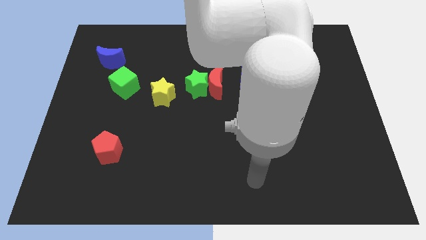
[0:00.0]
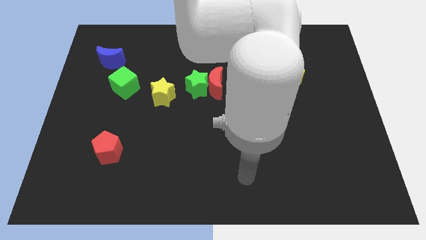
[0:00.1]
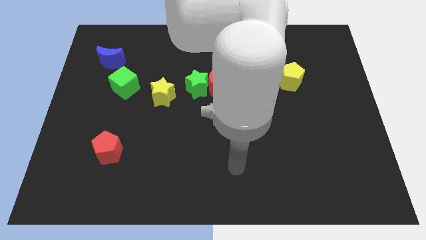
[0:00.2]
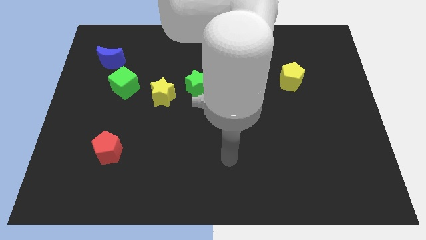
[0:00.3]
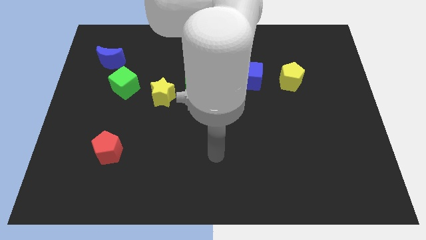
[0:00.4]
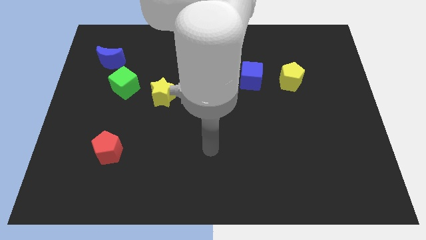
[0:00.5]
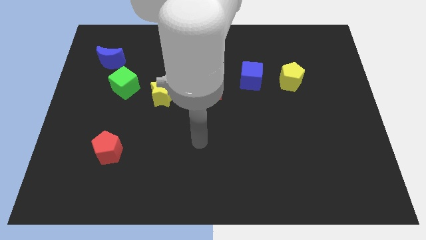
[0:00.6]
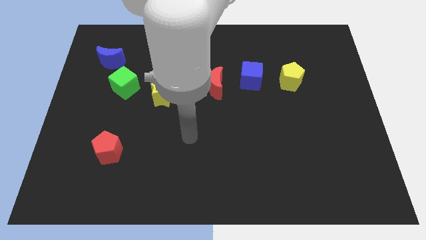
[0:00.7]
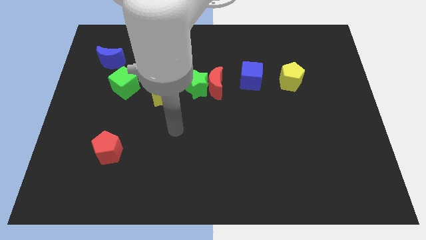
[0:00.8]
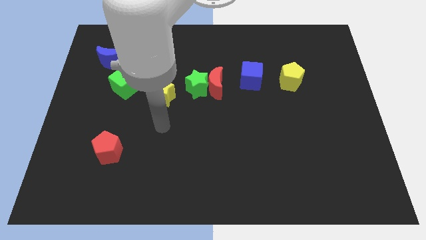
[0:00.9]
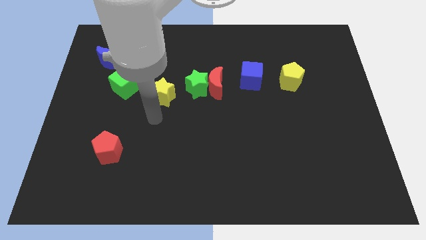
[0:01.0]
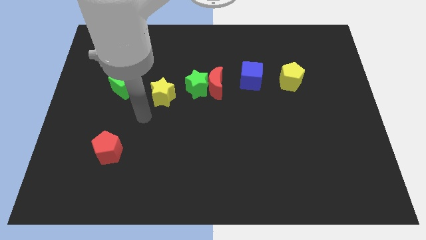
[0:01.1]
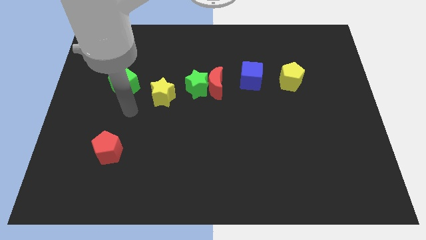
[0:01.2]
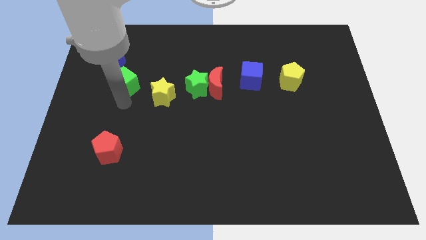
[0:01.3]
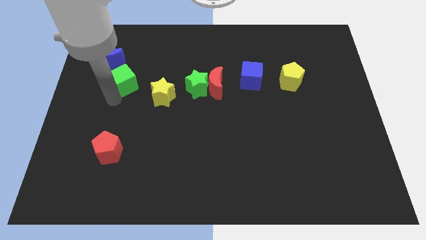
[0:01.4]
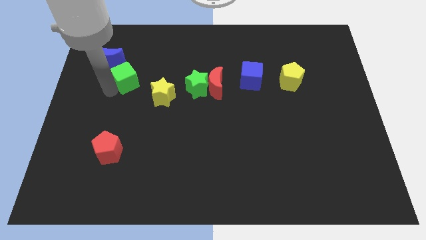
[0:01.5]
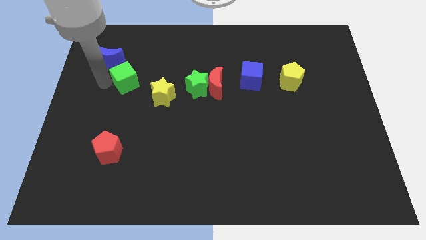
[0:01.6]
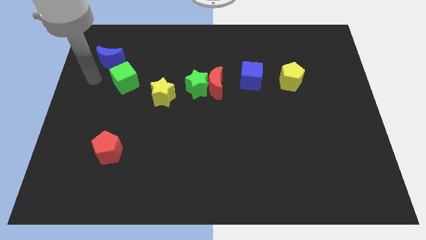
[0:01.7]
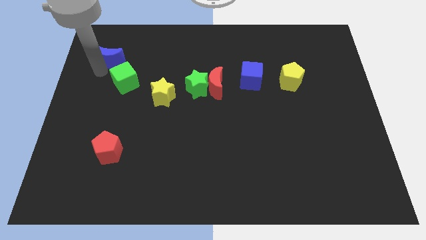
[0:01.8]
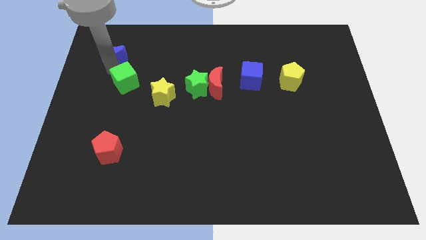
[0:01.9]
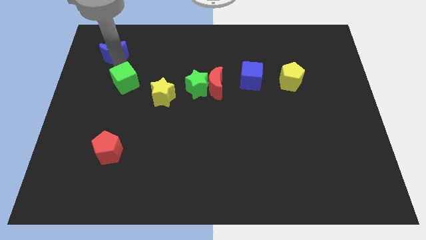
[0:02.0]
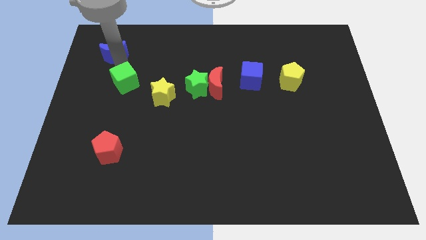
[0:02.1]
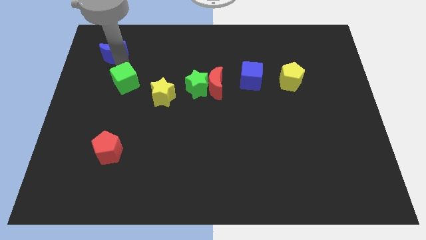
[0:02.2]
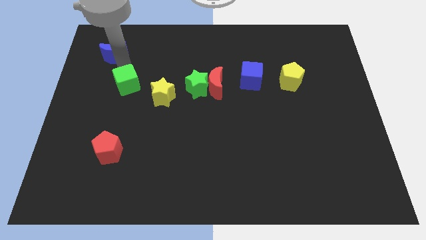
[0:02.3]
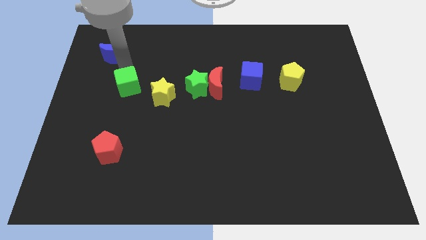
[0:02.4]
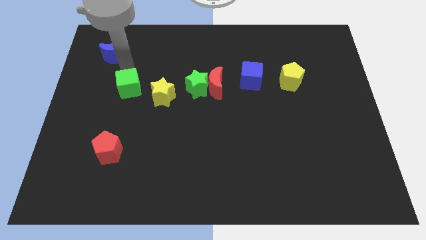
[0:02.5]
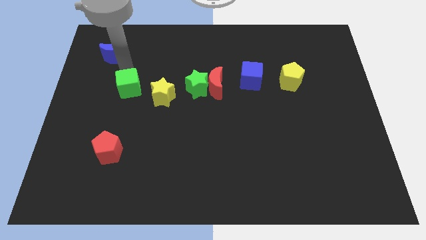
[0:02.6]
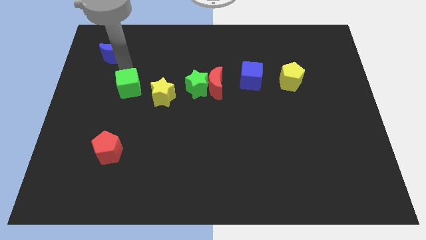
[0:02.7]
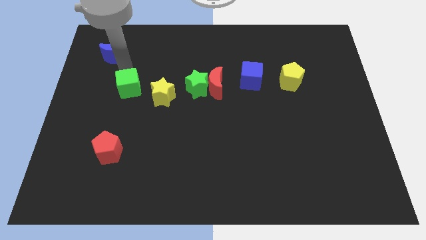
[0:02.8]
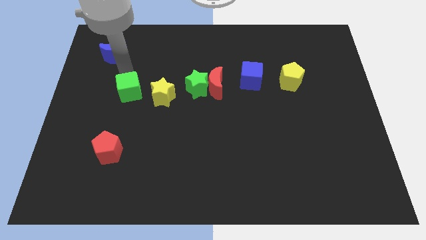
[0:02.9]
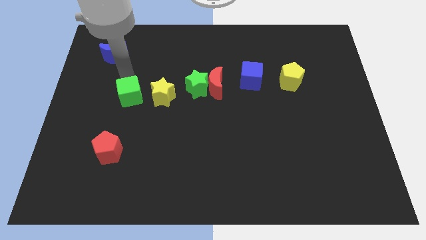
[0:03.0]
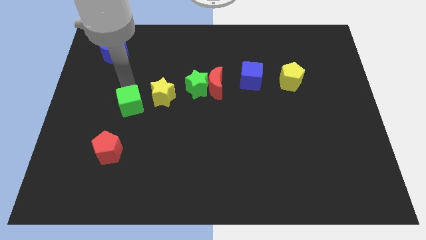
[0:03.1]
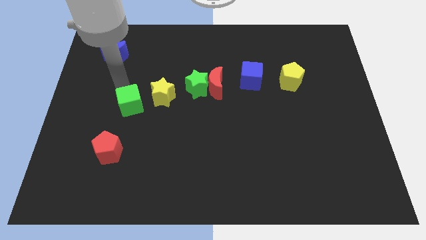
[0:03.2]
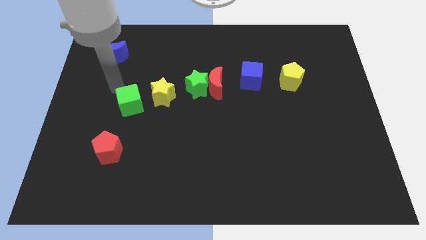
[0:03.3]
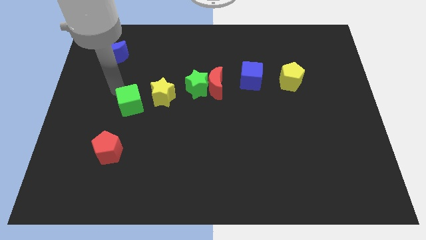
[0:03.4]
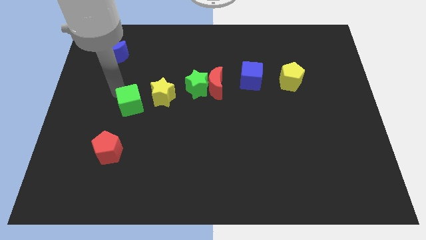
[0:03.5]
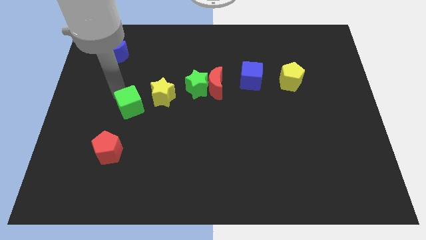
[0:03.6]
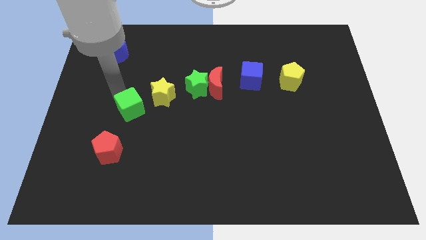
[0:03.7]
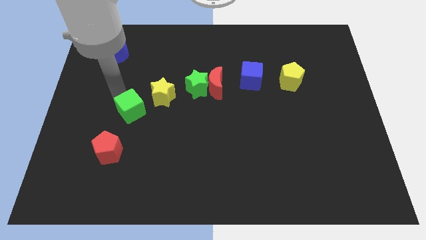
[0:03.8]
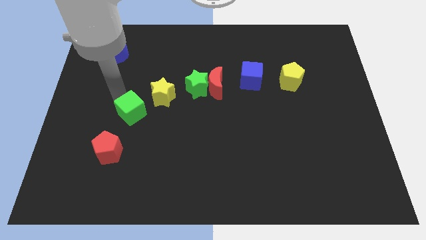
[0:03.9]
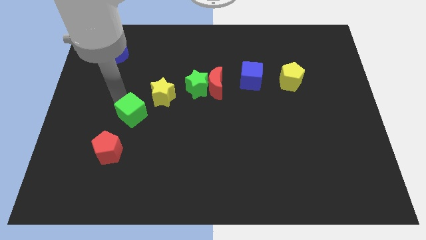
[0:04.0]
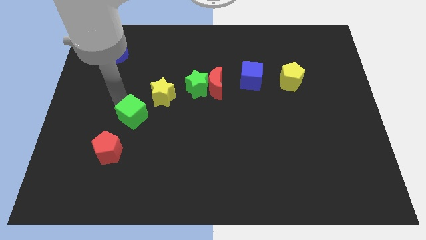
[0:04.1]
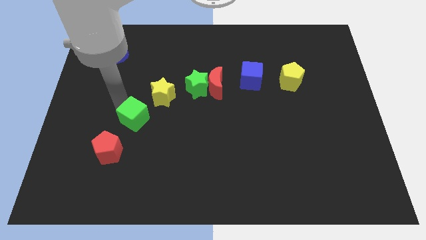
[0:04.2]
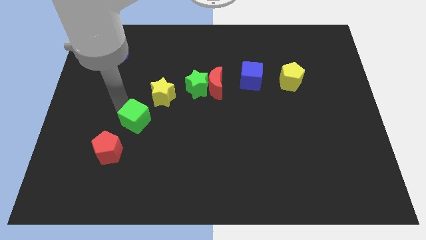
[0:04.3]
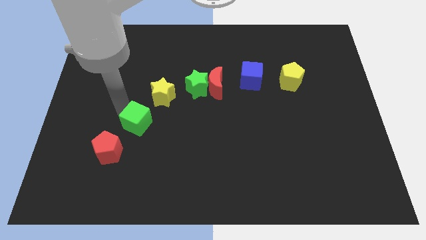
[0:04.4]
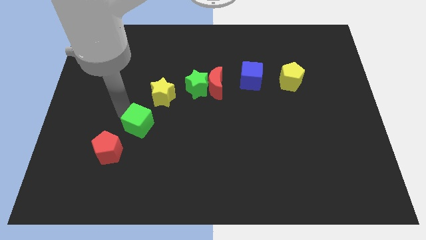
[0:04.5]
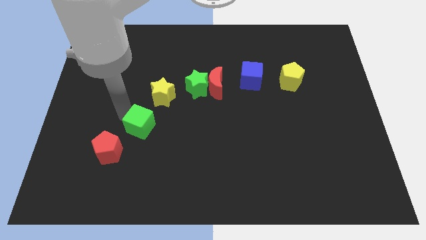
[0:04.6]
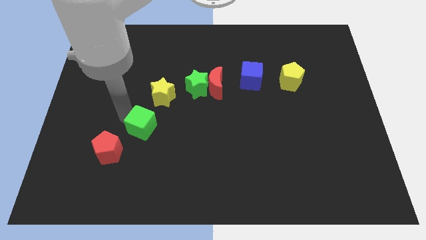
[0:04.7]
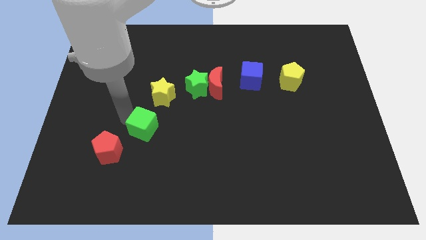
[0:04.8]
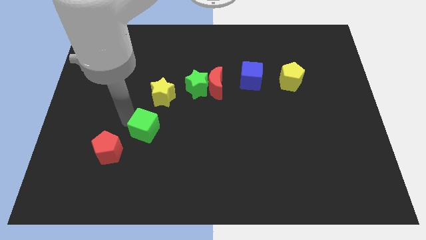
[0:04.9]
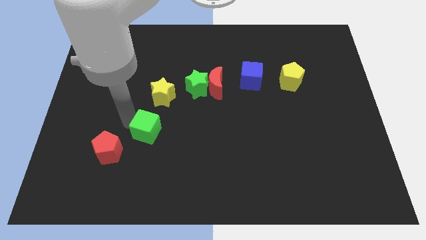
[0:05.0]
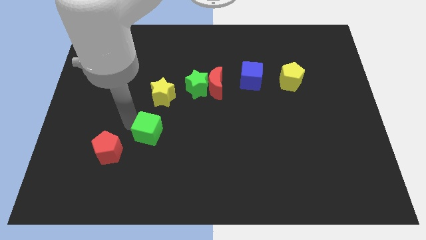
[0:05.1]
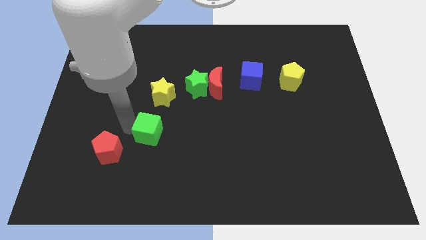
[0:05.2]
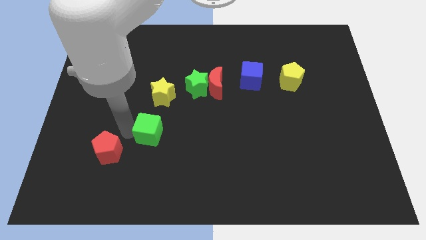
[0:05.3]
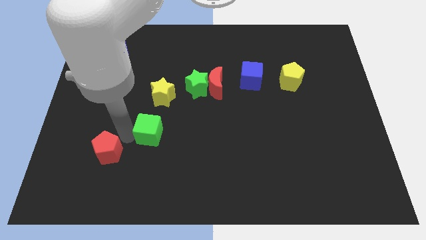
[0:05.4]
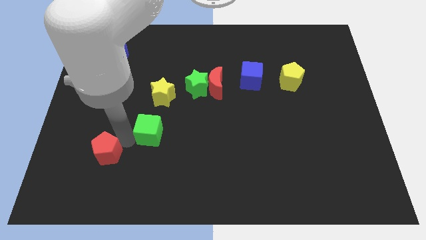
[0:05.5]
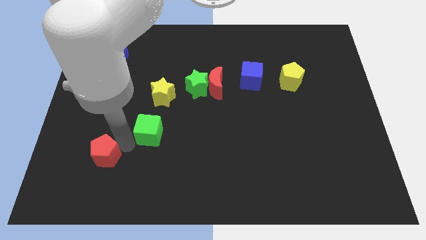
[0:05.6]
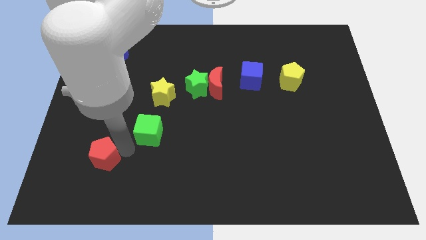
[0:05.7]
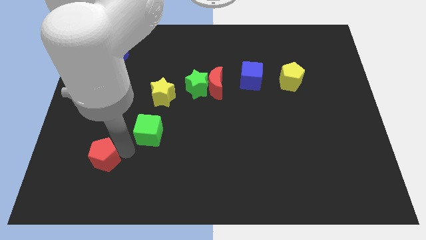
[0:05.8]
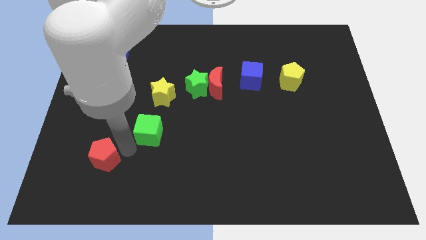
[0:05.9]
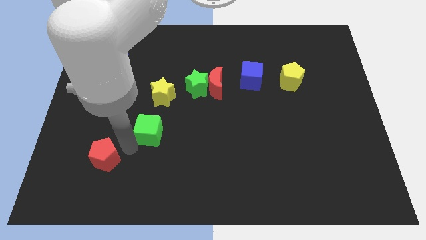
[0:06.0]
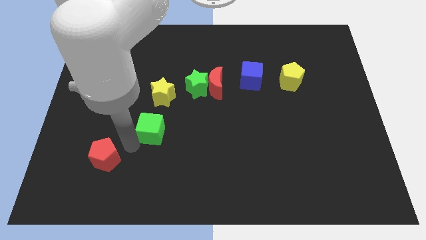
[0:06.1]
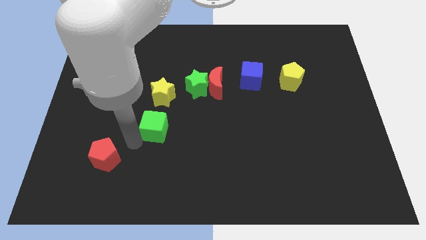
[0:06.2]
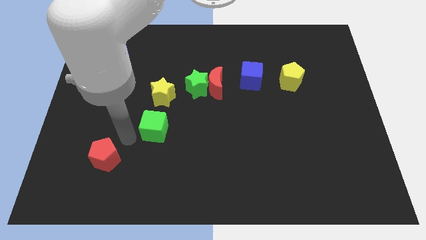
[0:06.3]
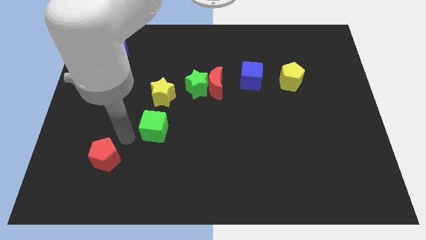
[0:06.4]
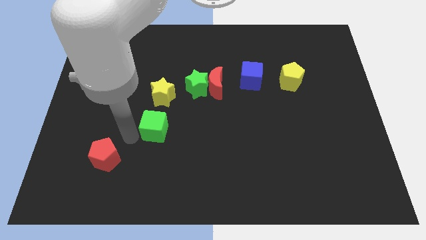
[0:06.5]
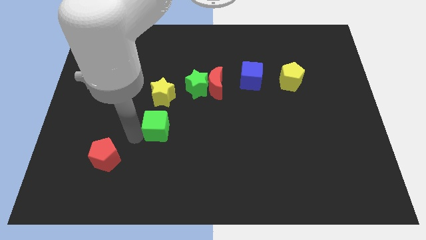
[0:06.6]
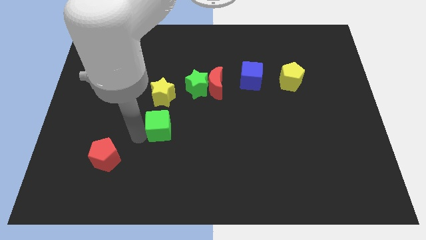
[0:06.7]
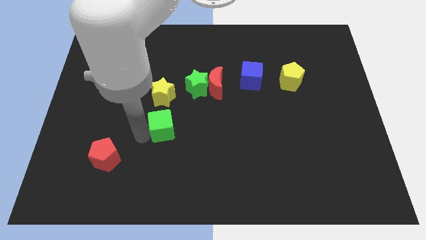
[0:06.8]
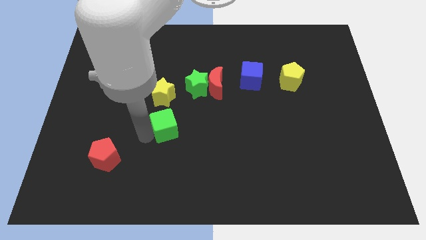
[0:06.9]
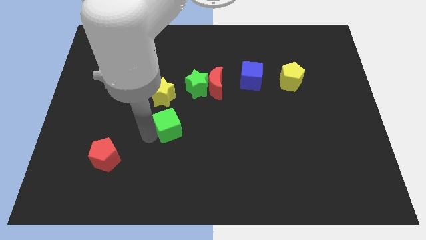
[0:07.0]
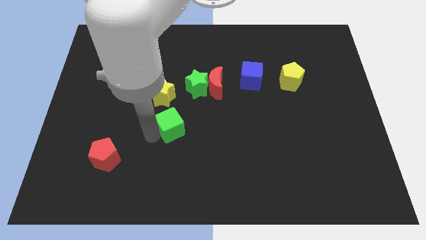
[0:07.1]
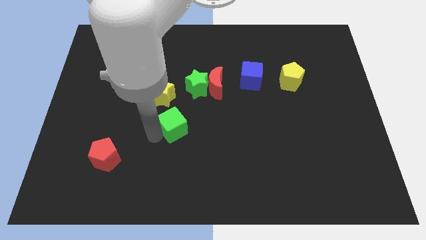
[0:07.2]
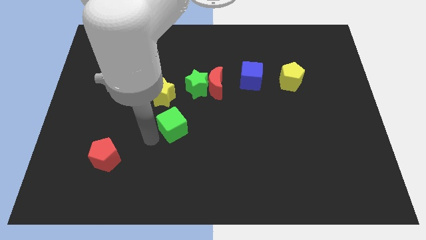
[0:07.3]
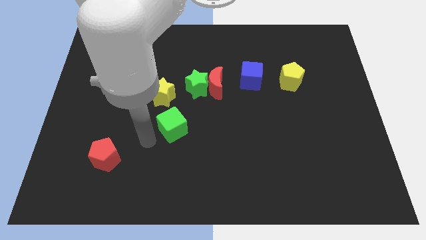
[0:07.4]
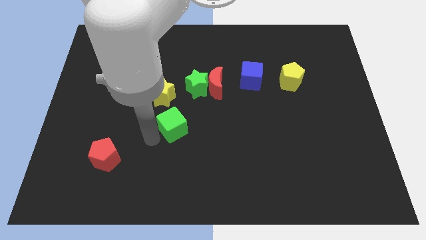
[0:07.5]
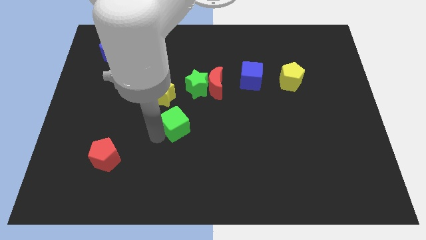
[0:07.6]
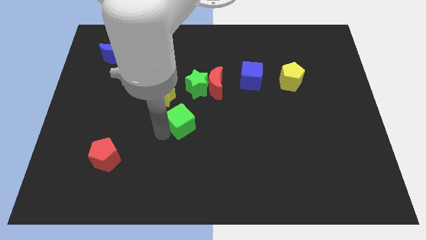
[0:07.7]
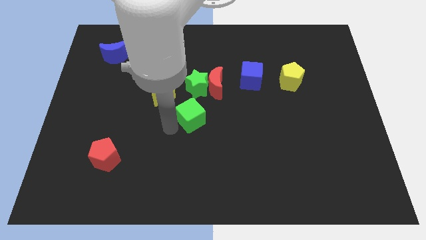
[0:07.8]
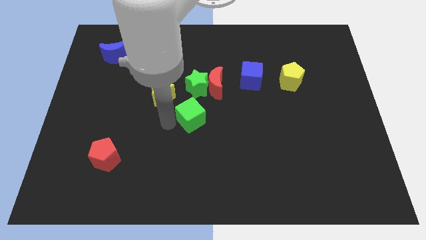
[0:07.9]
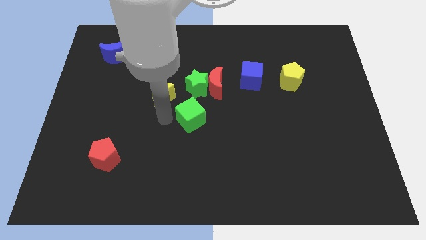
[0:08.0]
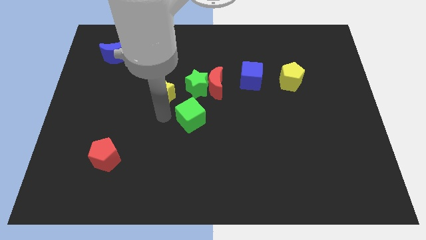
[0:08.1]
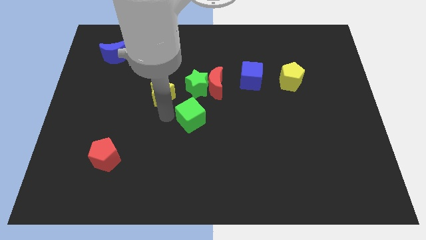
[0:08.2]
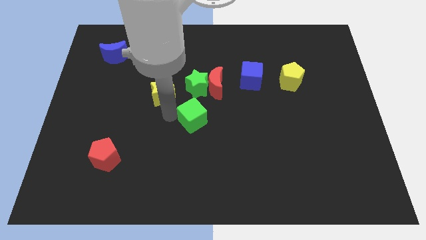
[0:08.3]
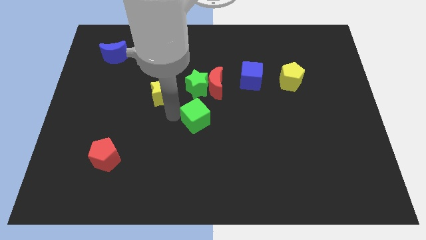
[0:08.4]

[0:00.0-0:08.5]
put the green cube to the bottom of the red moon
